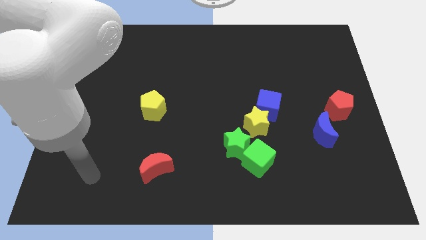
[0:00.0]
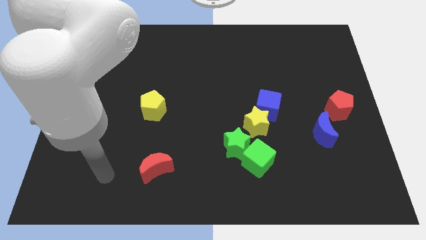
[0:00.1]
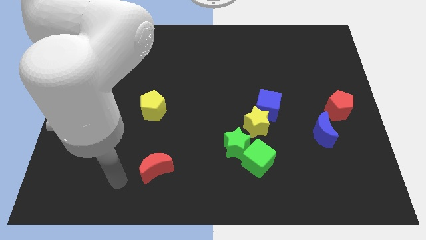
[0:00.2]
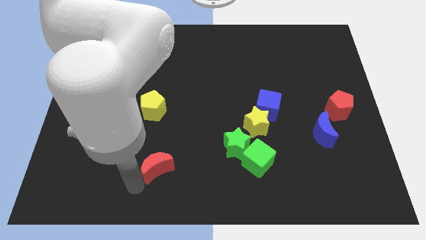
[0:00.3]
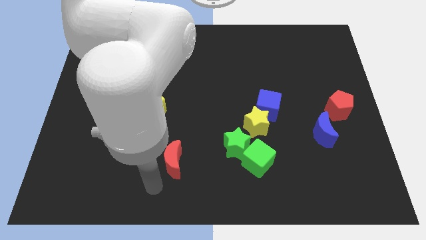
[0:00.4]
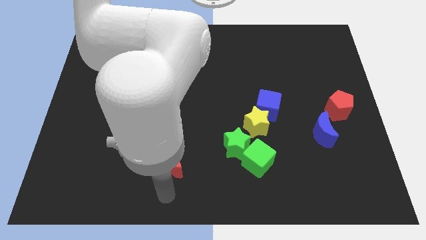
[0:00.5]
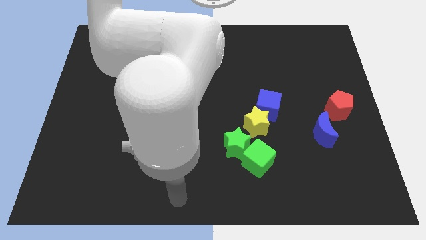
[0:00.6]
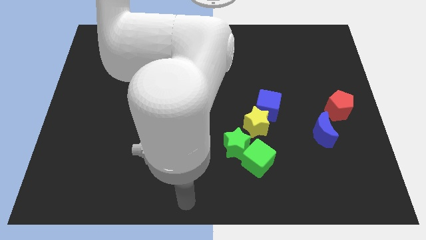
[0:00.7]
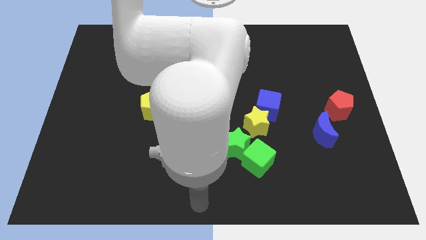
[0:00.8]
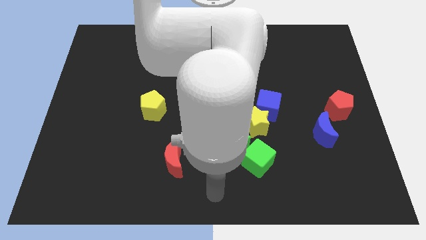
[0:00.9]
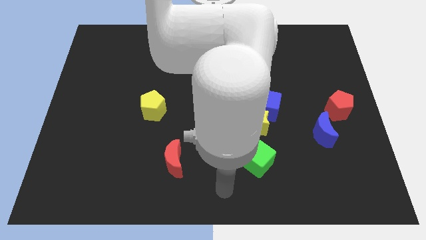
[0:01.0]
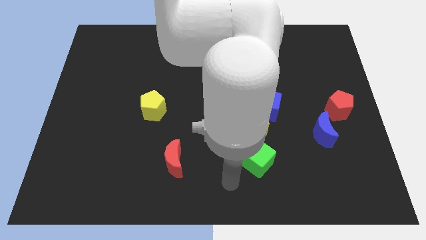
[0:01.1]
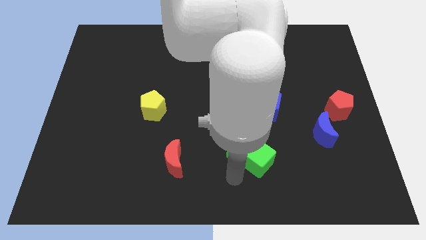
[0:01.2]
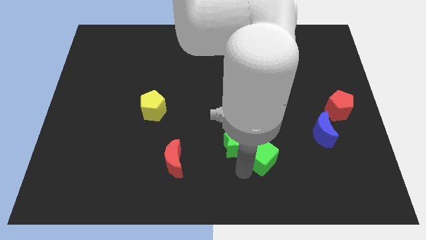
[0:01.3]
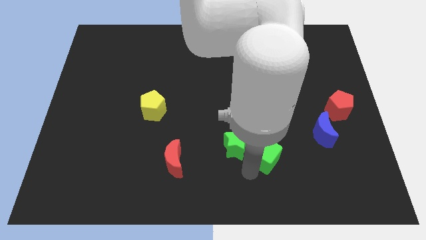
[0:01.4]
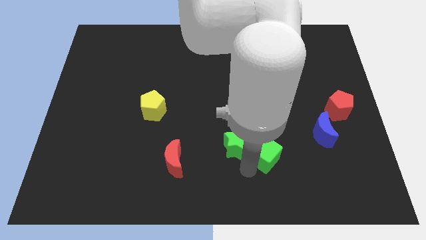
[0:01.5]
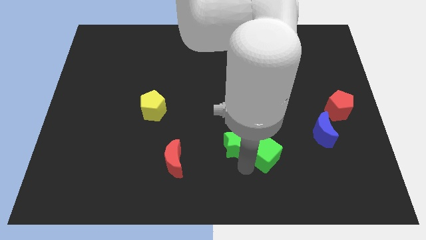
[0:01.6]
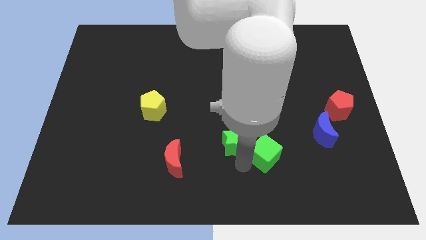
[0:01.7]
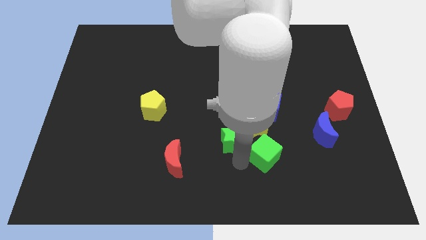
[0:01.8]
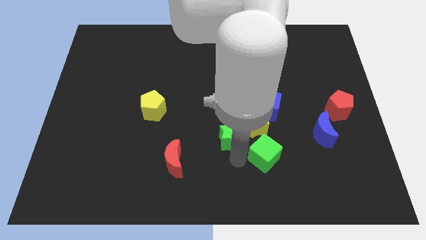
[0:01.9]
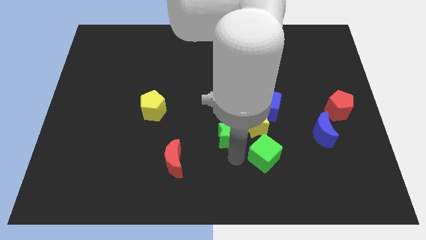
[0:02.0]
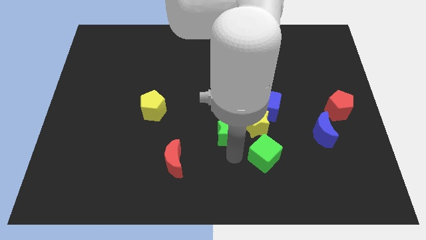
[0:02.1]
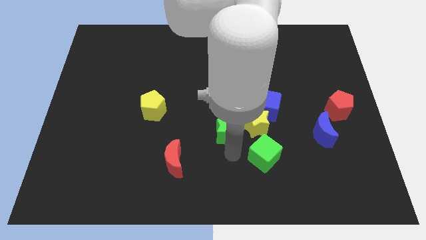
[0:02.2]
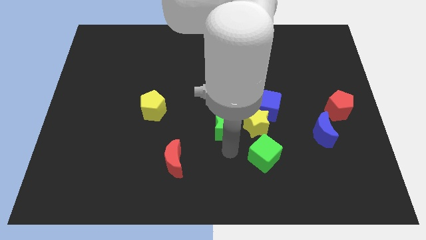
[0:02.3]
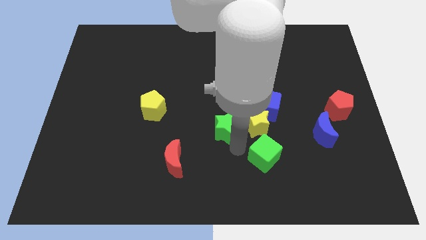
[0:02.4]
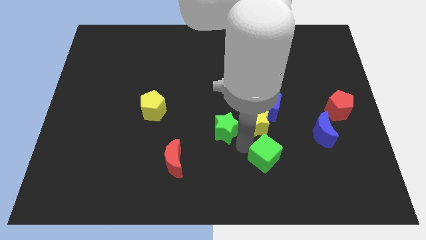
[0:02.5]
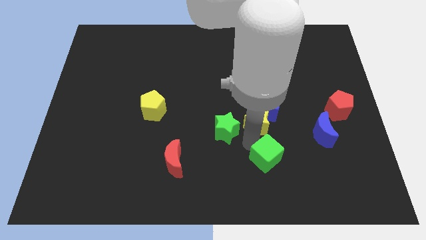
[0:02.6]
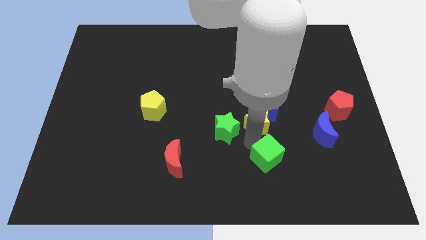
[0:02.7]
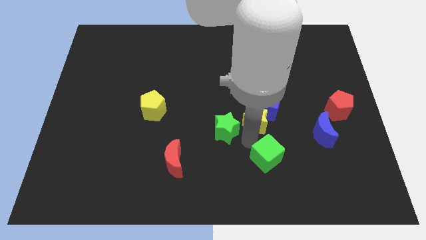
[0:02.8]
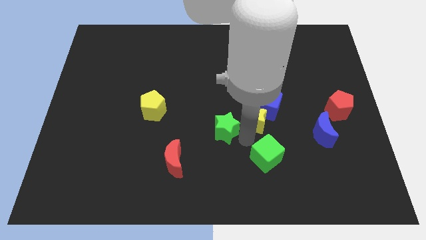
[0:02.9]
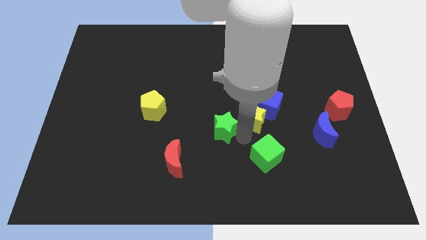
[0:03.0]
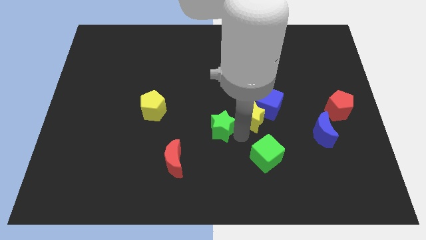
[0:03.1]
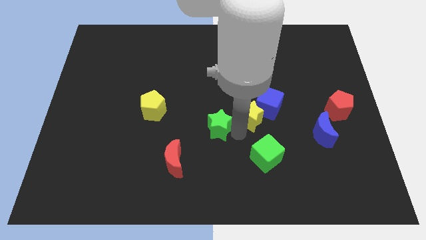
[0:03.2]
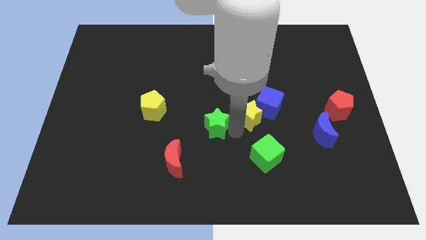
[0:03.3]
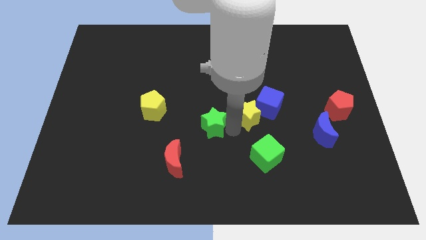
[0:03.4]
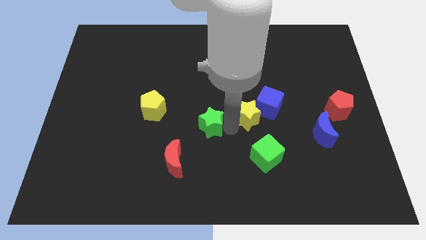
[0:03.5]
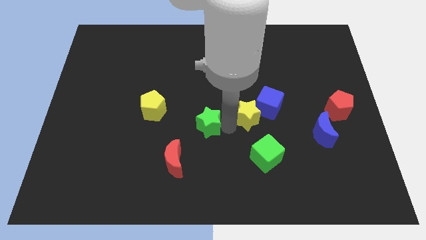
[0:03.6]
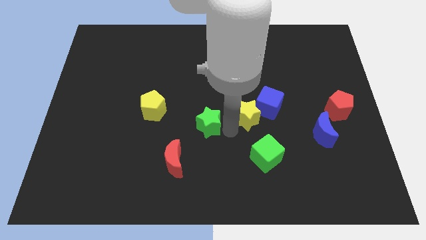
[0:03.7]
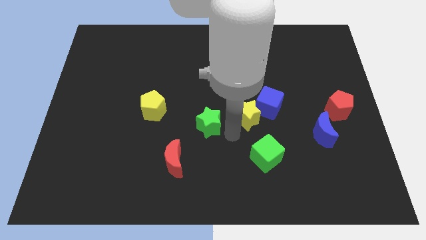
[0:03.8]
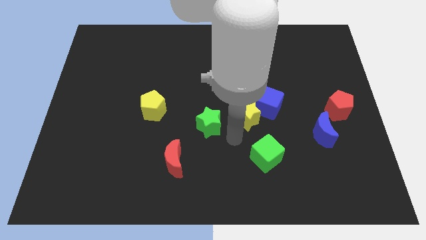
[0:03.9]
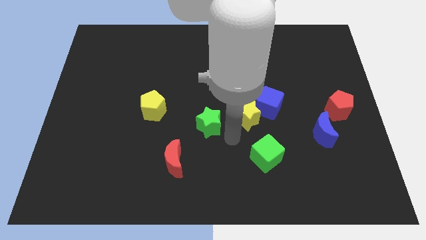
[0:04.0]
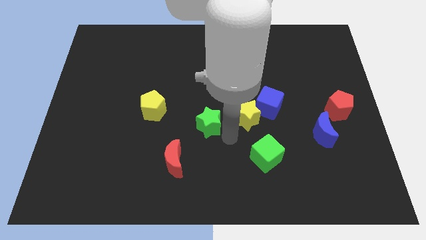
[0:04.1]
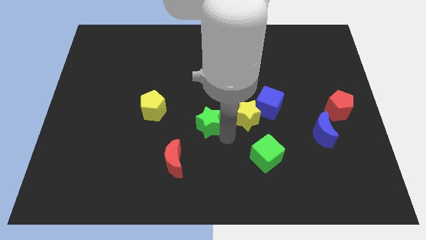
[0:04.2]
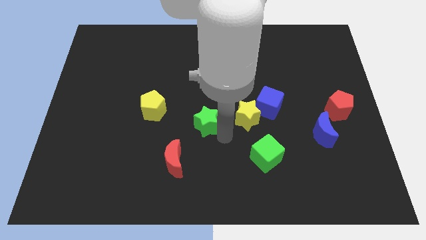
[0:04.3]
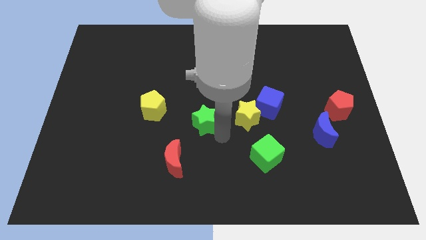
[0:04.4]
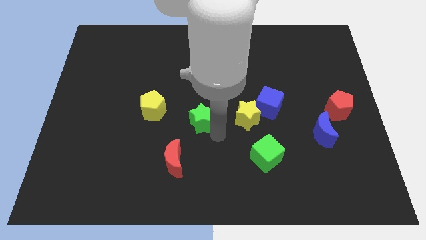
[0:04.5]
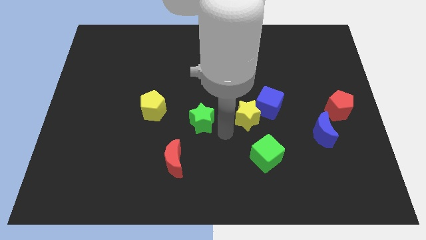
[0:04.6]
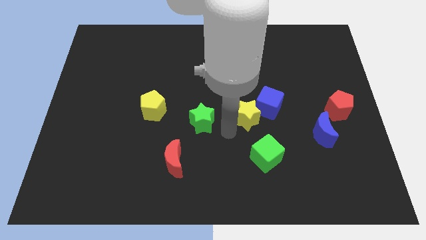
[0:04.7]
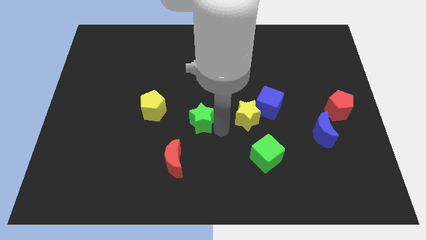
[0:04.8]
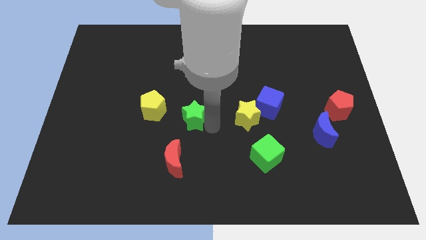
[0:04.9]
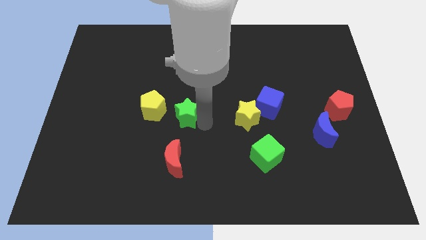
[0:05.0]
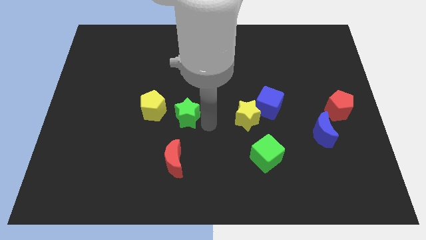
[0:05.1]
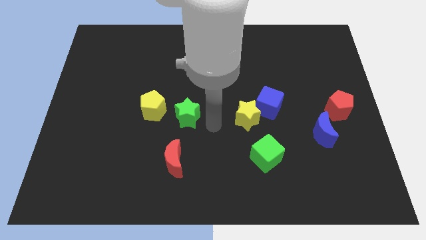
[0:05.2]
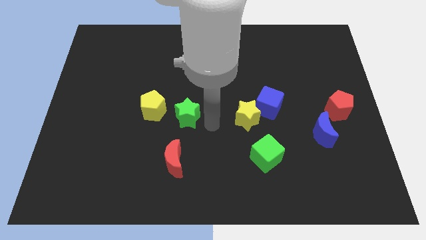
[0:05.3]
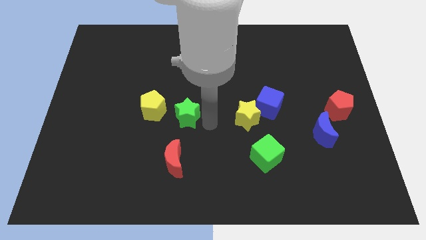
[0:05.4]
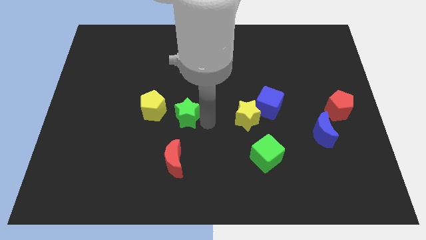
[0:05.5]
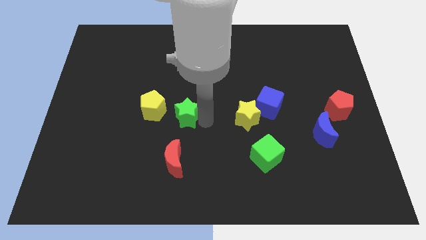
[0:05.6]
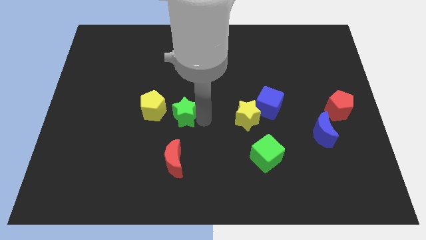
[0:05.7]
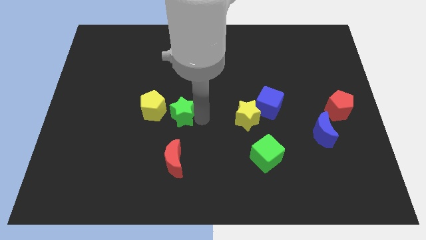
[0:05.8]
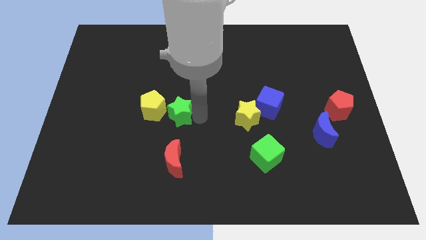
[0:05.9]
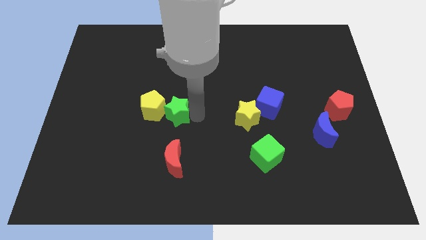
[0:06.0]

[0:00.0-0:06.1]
put the green star towards the yellow pentagon

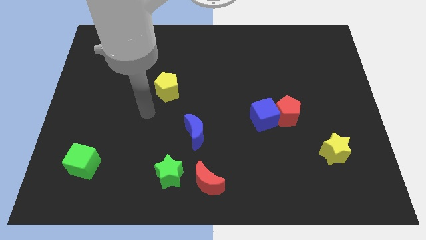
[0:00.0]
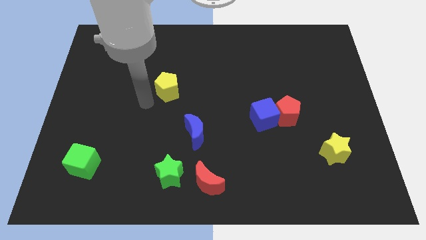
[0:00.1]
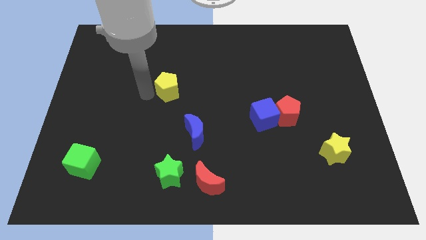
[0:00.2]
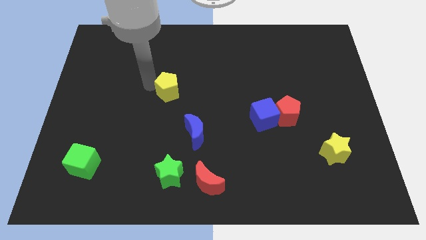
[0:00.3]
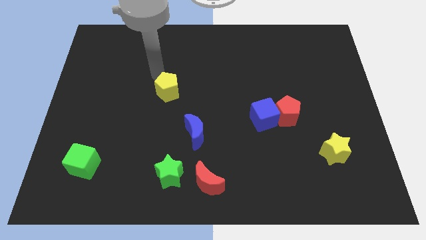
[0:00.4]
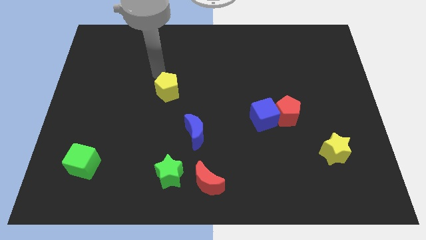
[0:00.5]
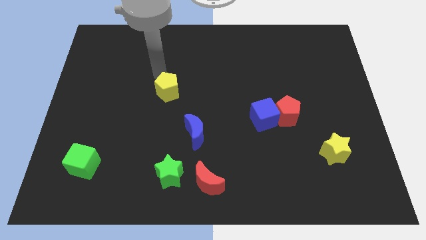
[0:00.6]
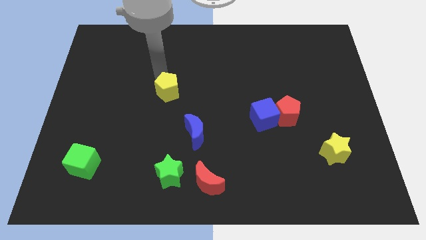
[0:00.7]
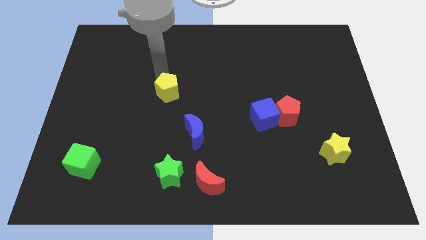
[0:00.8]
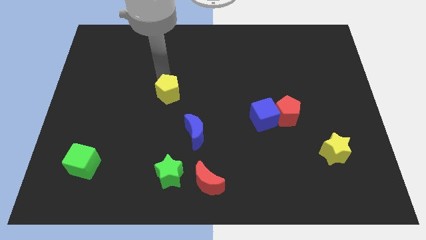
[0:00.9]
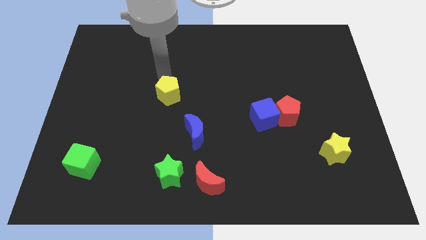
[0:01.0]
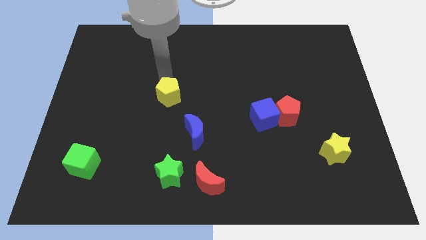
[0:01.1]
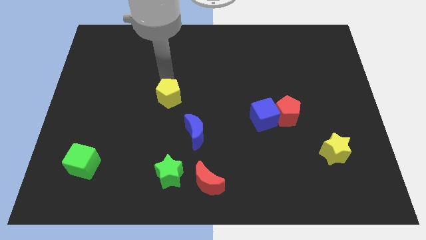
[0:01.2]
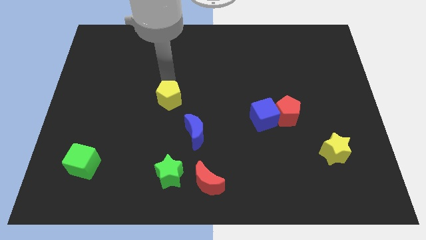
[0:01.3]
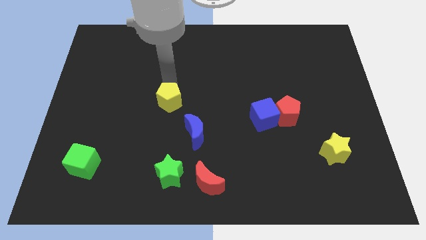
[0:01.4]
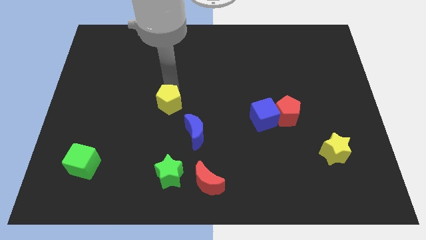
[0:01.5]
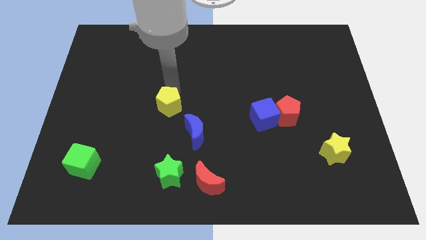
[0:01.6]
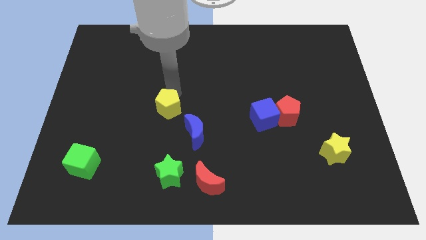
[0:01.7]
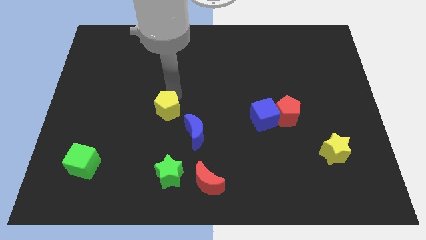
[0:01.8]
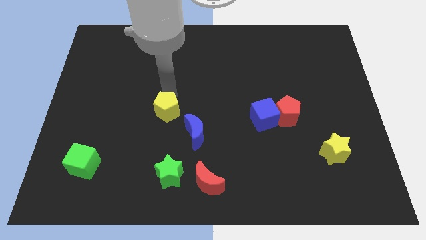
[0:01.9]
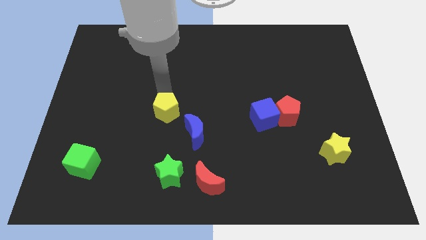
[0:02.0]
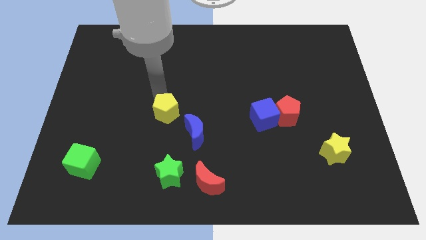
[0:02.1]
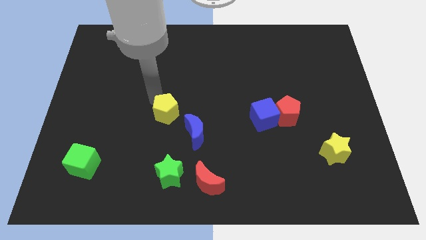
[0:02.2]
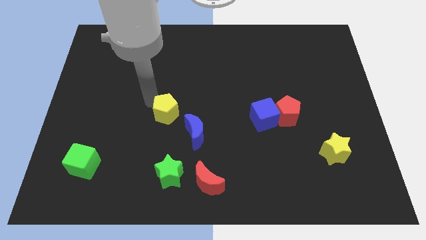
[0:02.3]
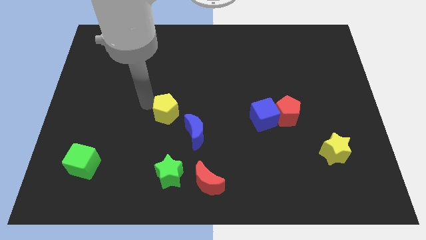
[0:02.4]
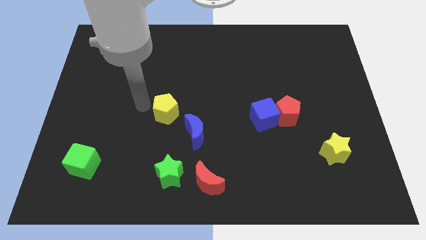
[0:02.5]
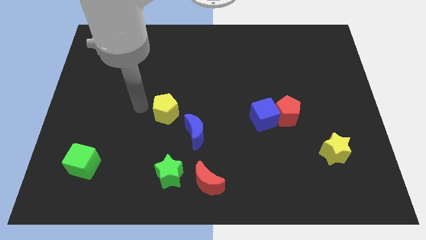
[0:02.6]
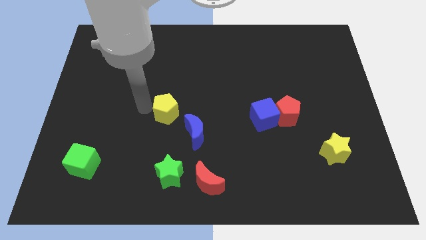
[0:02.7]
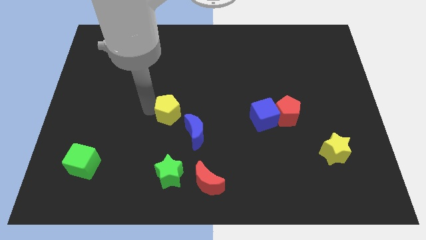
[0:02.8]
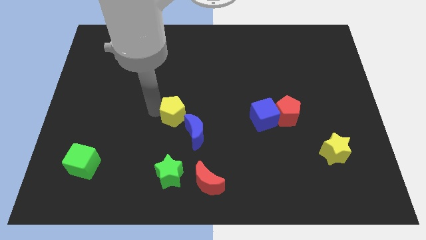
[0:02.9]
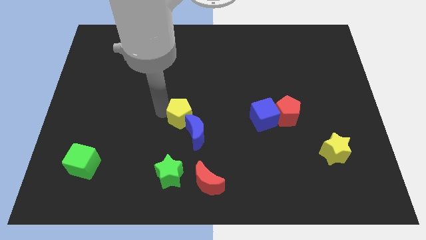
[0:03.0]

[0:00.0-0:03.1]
slide the yellow pentagon close to the blue moon
